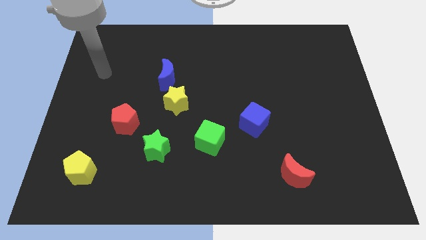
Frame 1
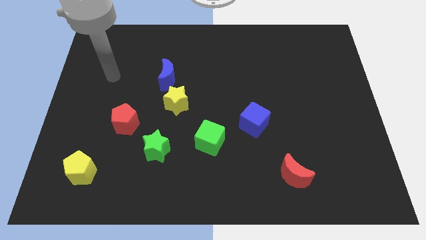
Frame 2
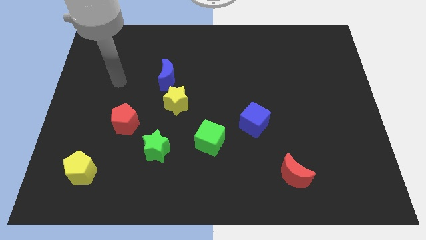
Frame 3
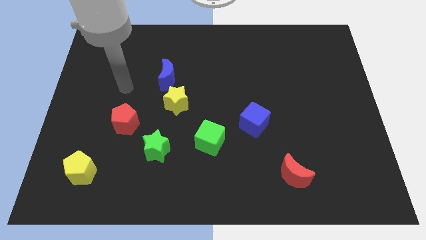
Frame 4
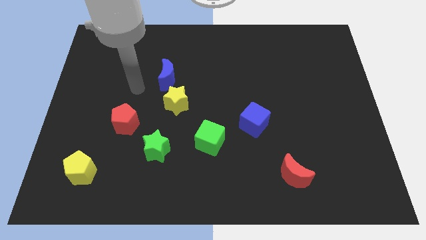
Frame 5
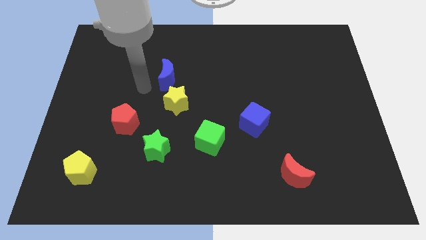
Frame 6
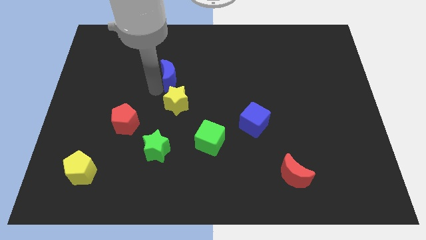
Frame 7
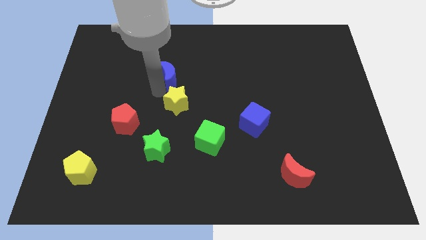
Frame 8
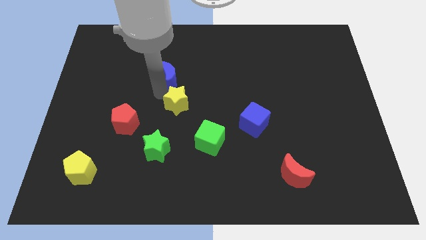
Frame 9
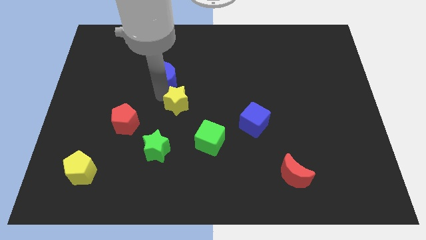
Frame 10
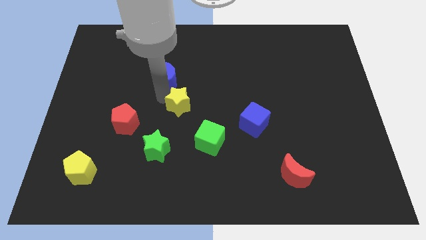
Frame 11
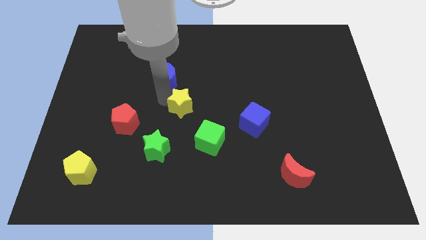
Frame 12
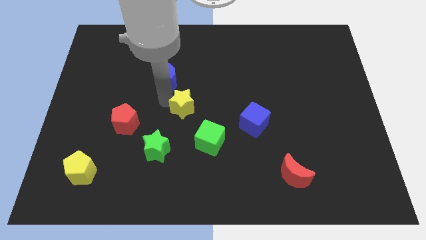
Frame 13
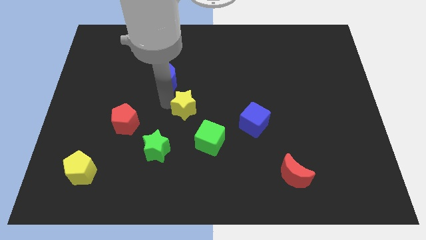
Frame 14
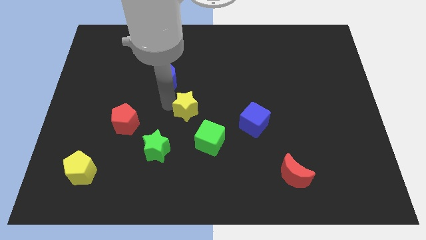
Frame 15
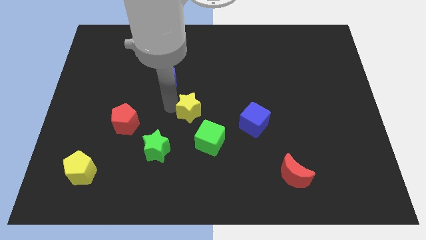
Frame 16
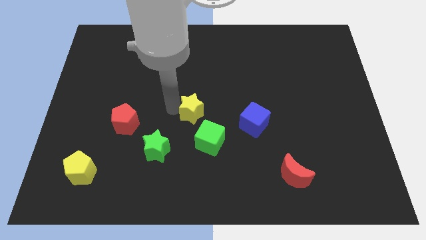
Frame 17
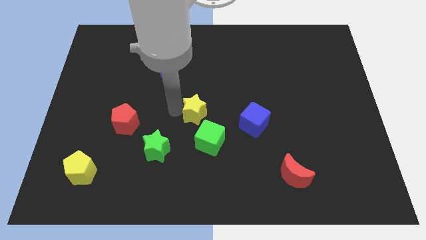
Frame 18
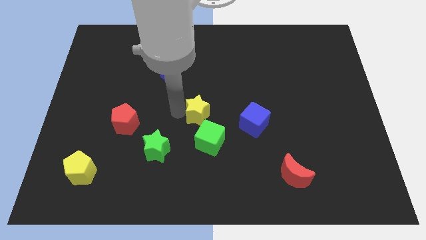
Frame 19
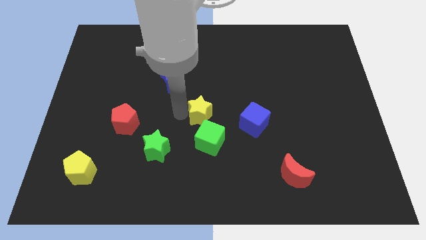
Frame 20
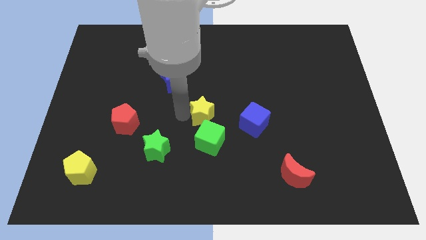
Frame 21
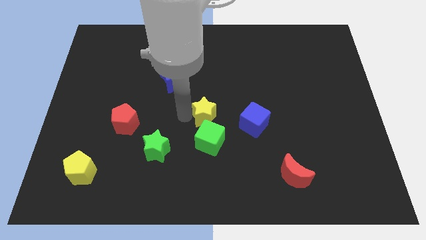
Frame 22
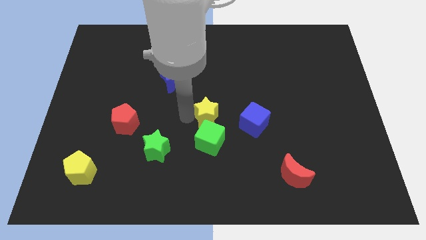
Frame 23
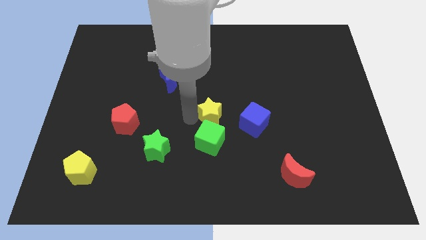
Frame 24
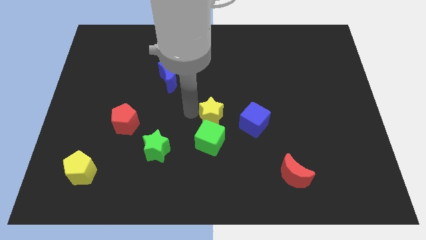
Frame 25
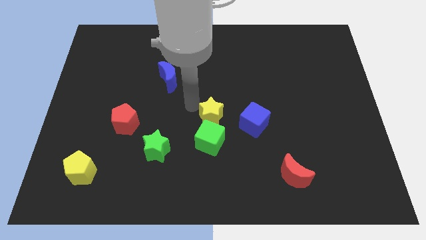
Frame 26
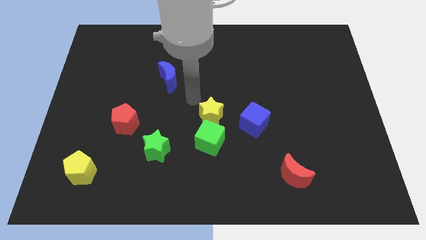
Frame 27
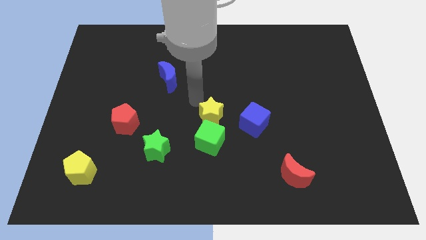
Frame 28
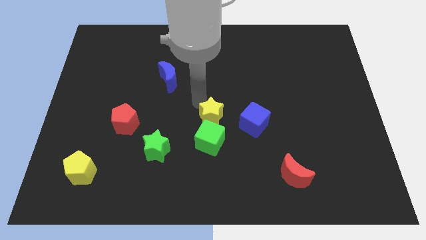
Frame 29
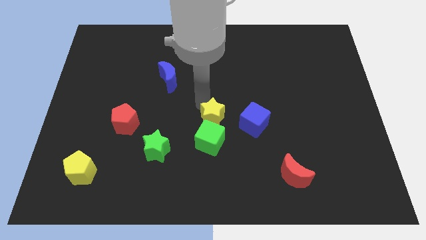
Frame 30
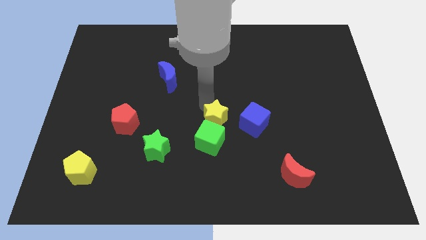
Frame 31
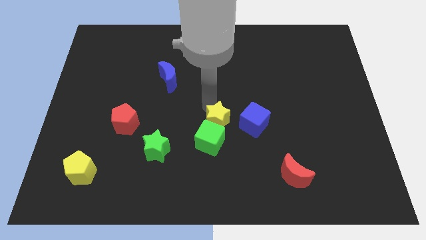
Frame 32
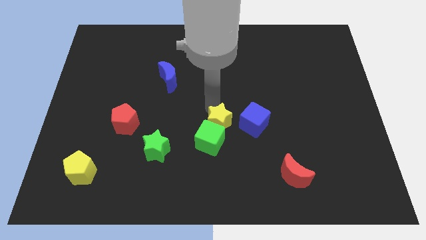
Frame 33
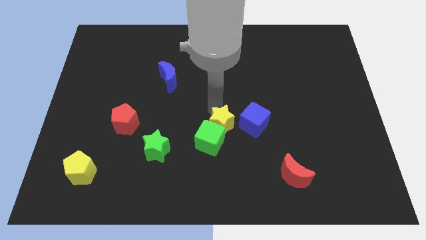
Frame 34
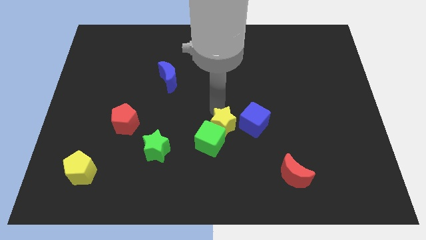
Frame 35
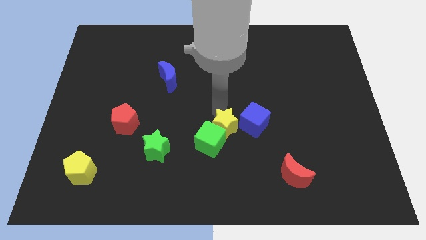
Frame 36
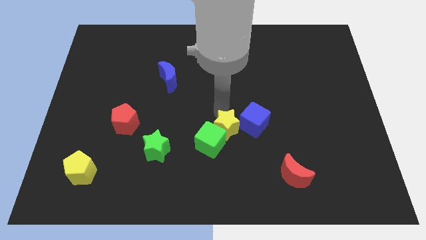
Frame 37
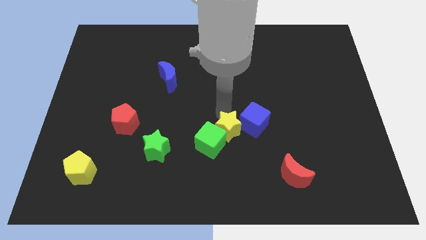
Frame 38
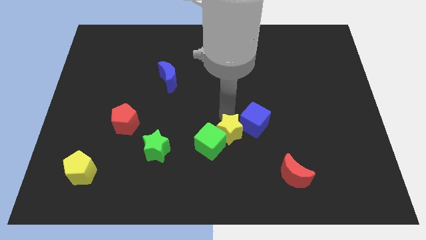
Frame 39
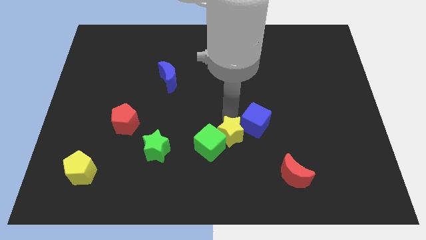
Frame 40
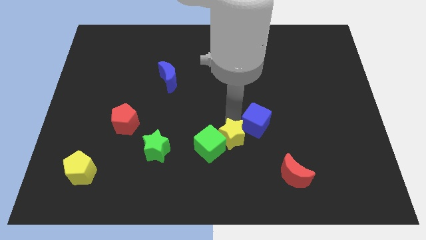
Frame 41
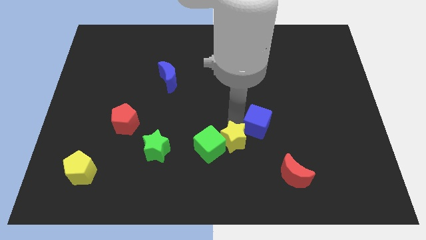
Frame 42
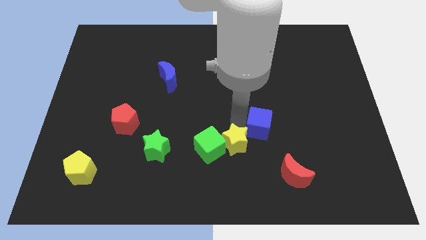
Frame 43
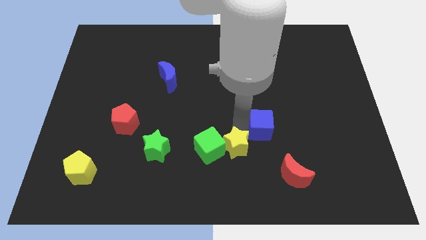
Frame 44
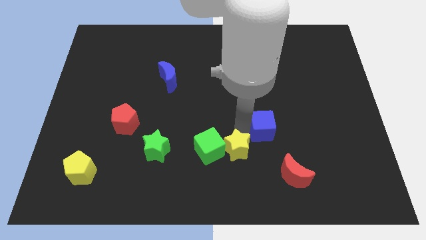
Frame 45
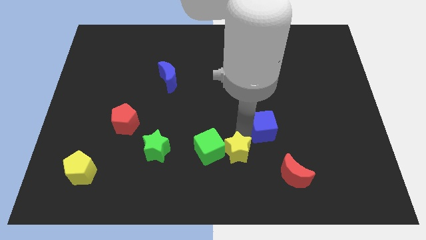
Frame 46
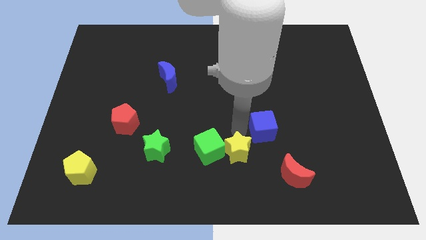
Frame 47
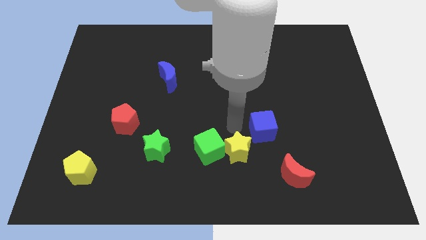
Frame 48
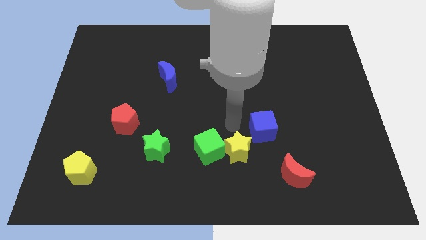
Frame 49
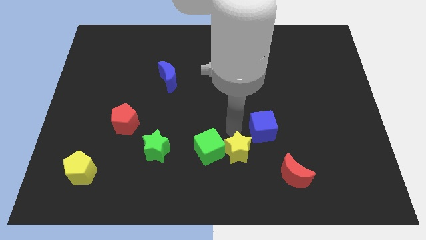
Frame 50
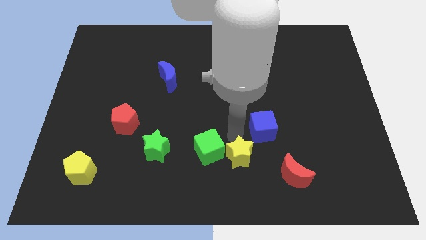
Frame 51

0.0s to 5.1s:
slide the yellow star left of the red moon

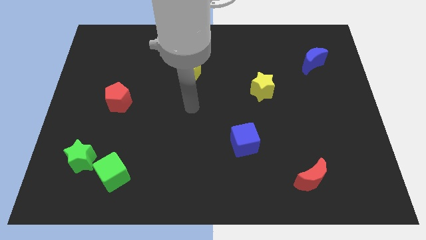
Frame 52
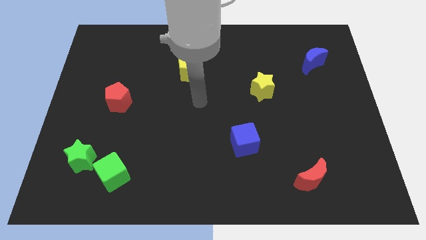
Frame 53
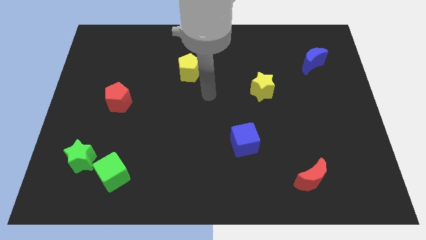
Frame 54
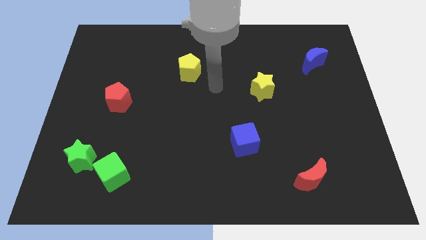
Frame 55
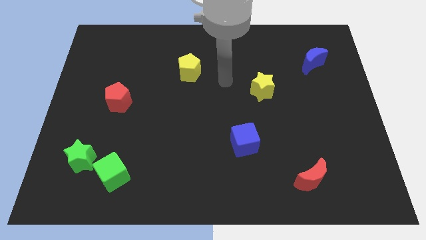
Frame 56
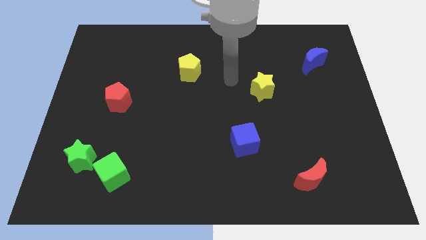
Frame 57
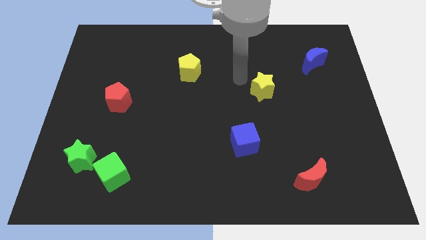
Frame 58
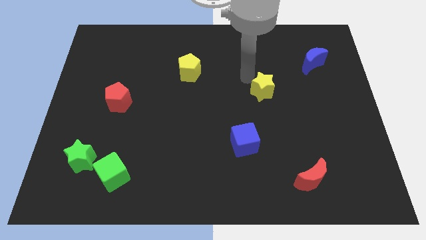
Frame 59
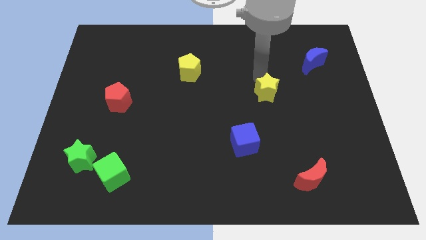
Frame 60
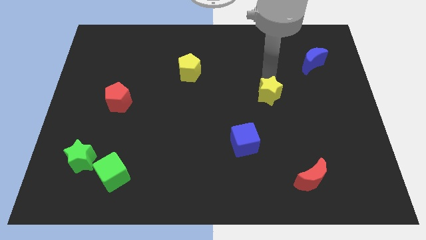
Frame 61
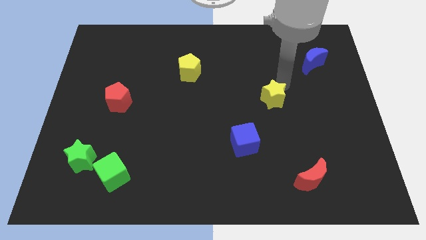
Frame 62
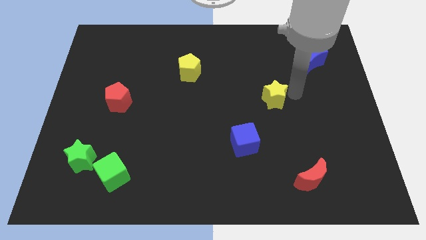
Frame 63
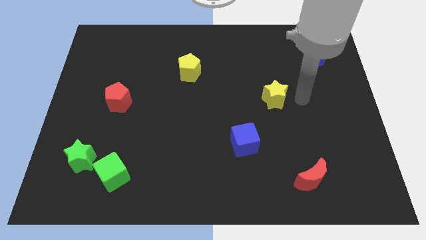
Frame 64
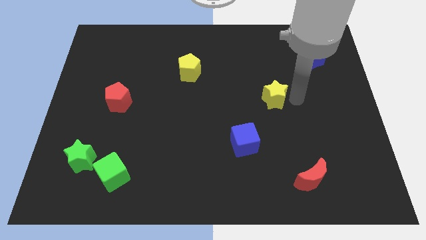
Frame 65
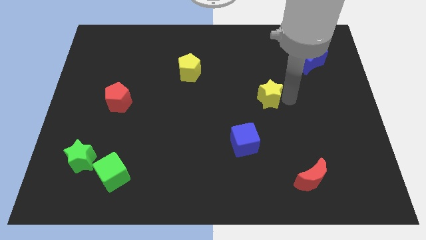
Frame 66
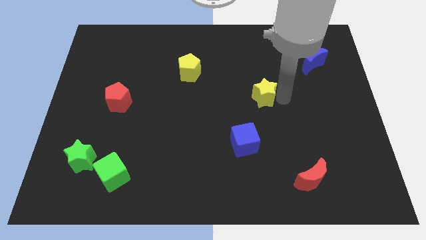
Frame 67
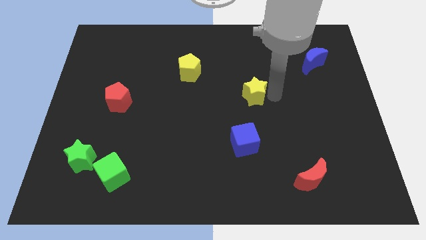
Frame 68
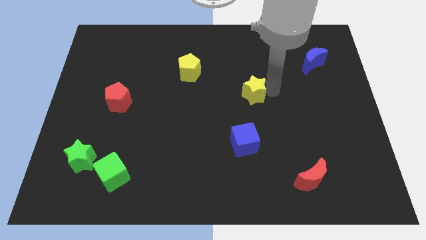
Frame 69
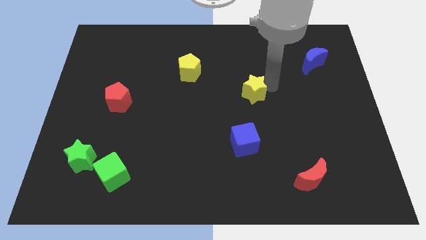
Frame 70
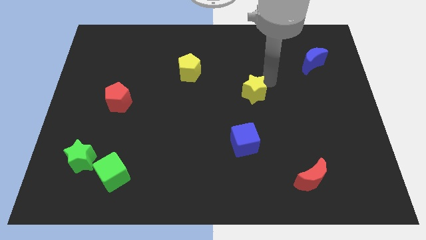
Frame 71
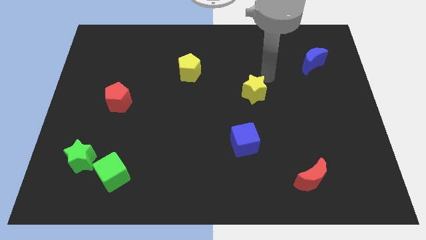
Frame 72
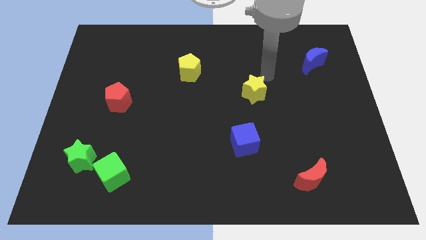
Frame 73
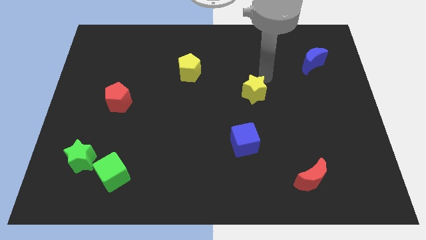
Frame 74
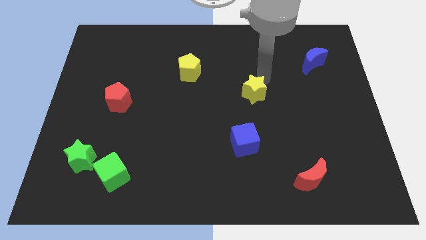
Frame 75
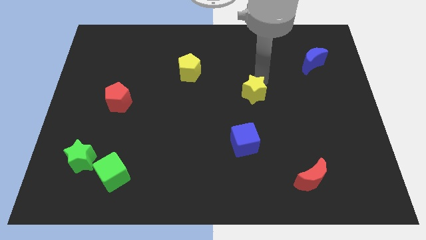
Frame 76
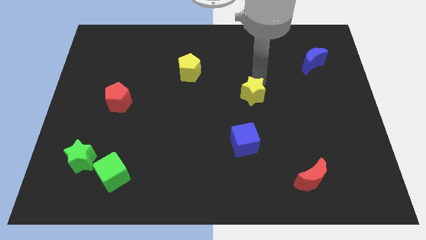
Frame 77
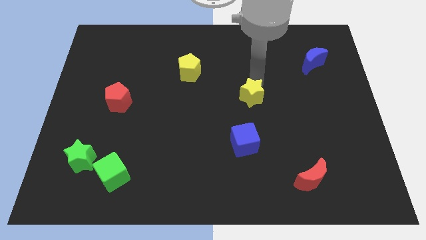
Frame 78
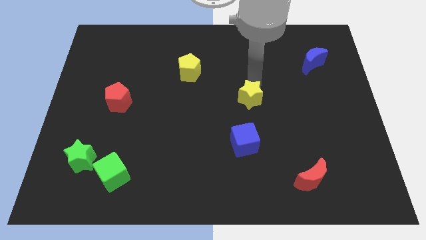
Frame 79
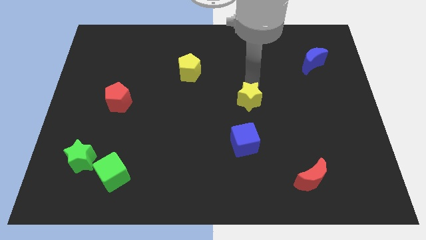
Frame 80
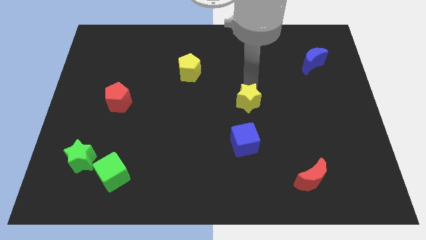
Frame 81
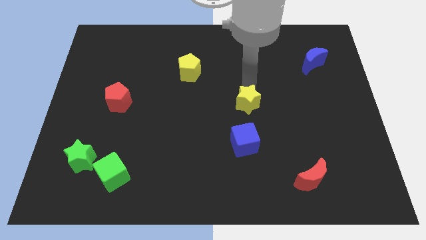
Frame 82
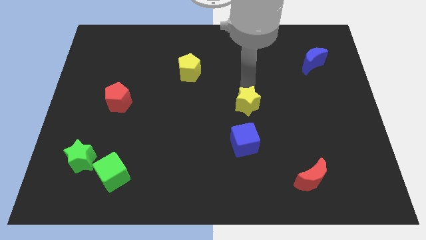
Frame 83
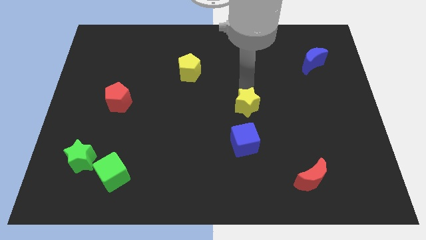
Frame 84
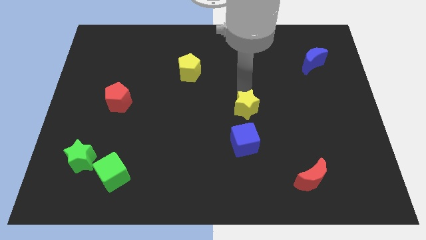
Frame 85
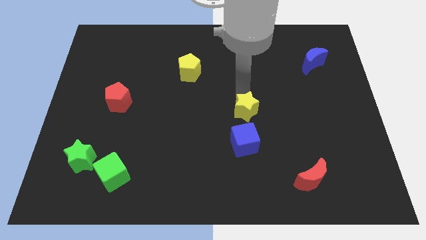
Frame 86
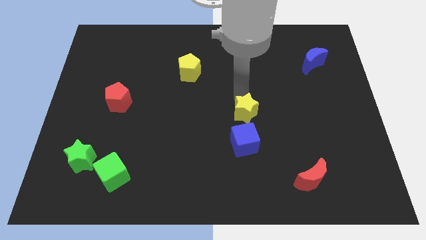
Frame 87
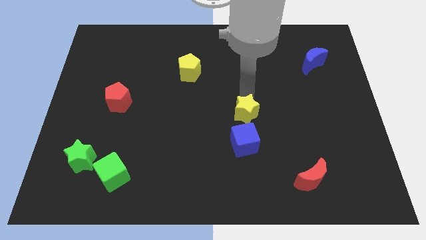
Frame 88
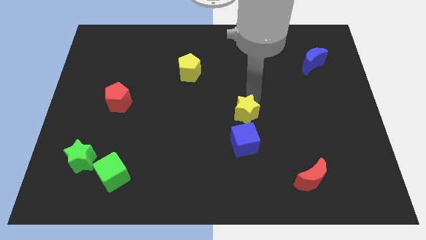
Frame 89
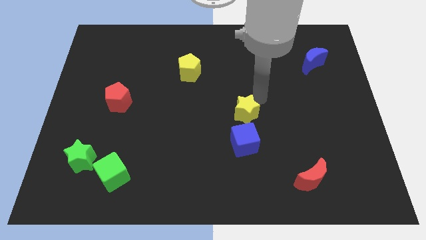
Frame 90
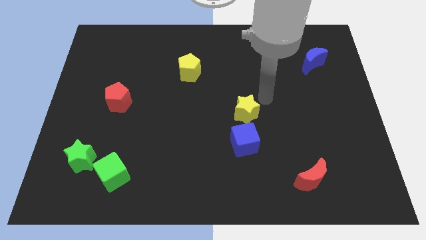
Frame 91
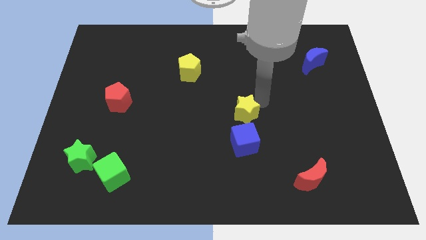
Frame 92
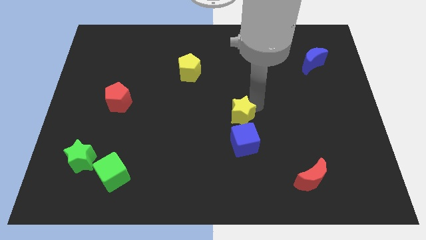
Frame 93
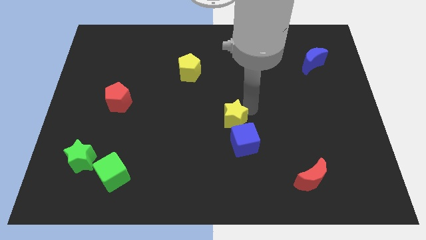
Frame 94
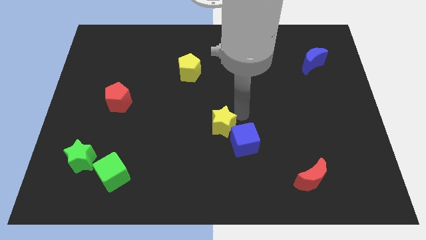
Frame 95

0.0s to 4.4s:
move the yellow star to the left of the blue cube
